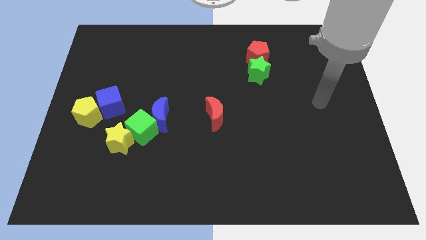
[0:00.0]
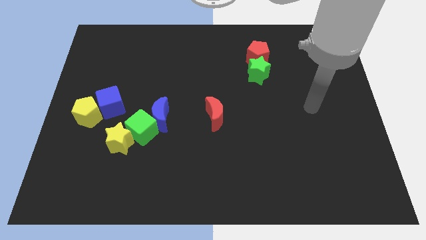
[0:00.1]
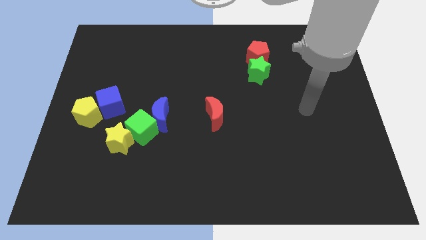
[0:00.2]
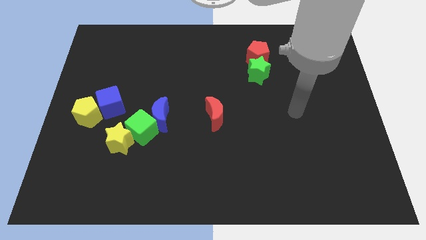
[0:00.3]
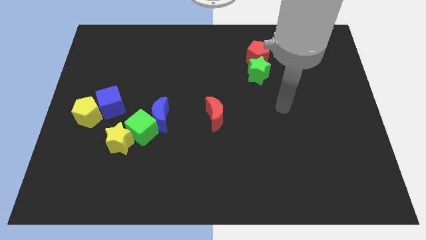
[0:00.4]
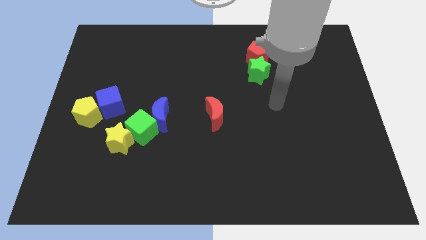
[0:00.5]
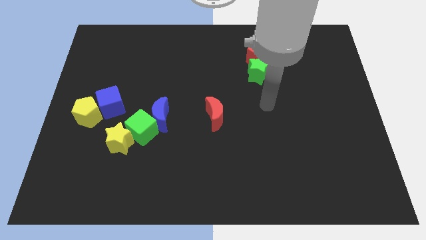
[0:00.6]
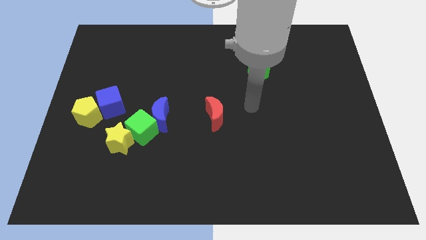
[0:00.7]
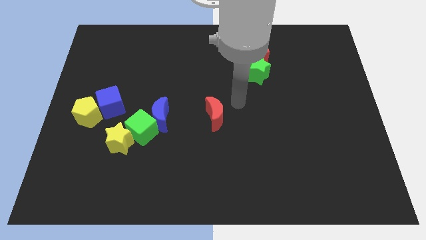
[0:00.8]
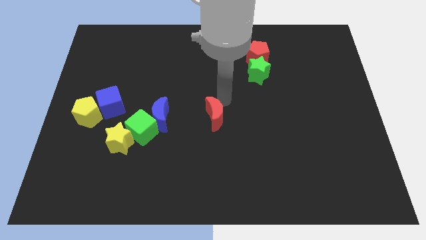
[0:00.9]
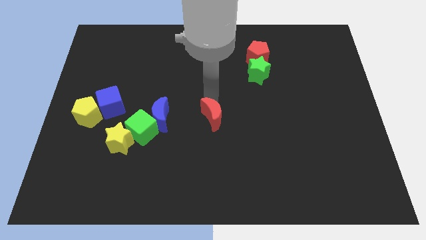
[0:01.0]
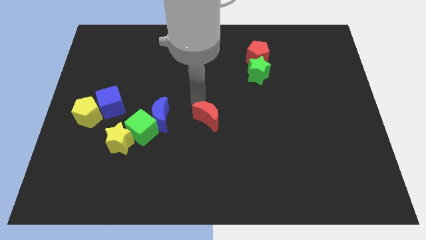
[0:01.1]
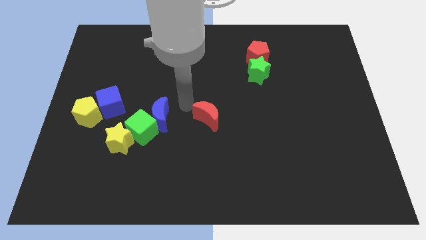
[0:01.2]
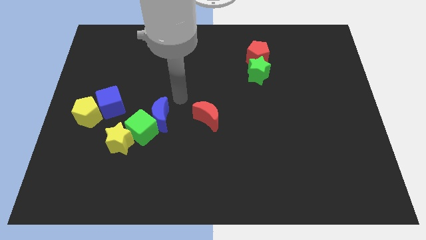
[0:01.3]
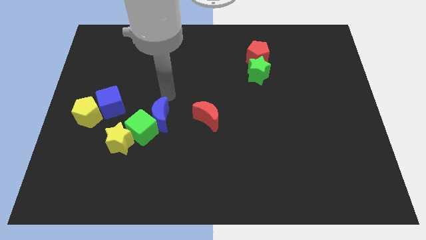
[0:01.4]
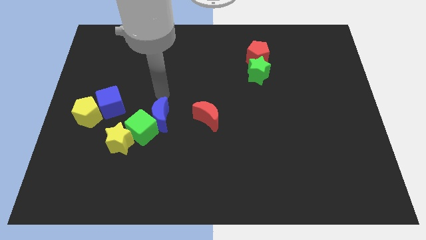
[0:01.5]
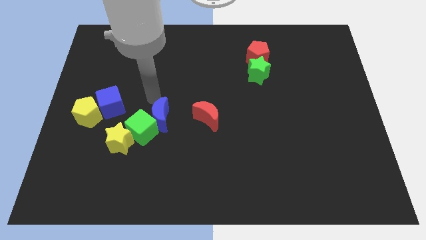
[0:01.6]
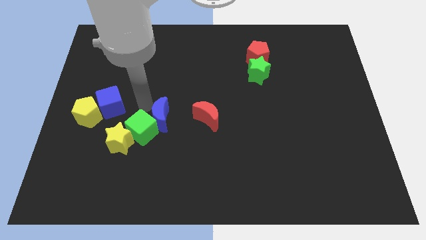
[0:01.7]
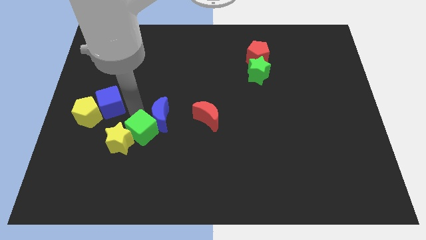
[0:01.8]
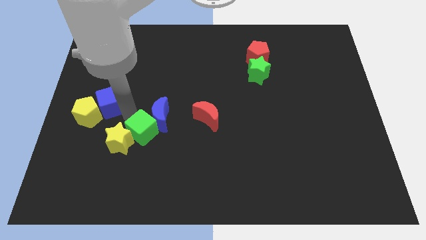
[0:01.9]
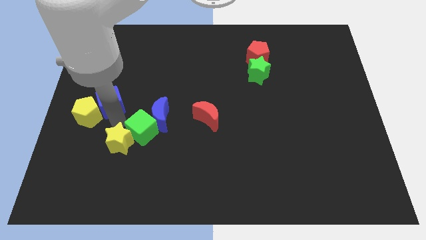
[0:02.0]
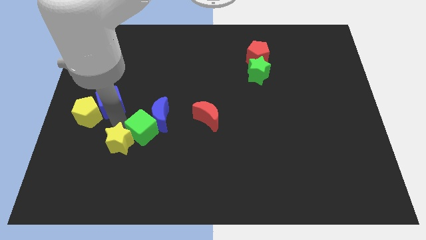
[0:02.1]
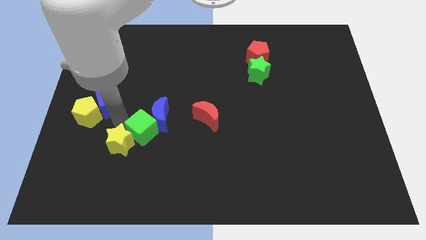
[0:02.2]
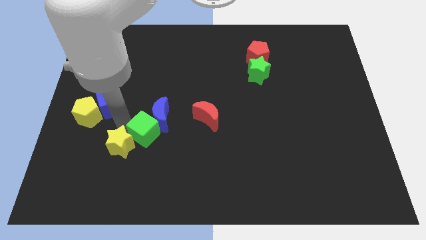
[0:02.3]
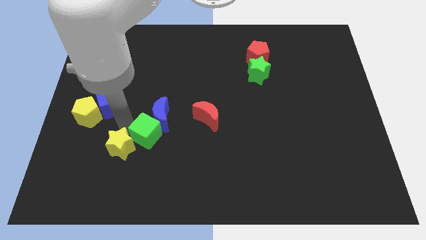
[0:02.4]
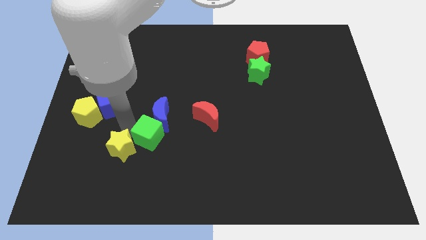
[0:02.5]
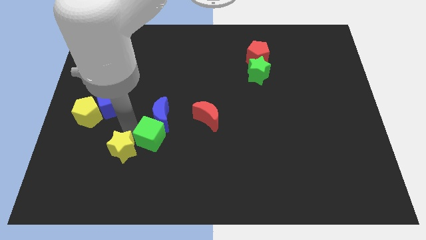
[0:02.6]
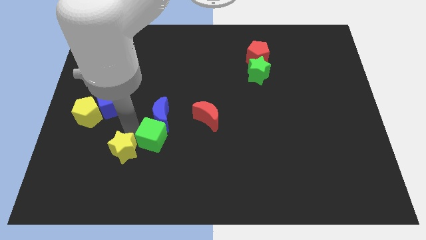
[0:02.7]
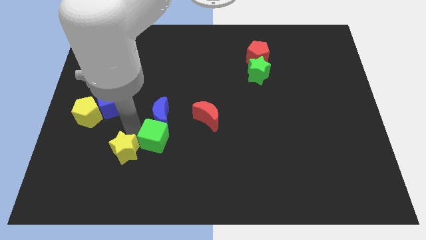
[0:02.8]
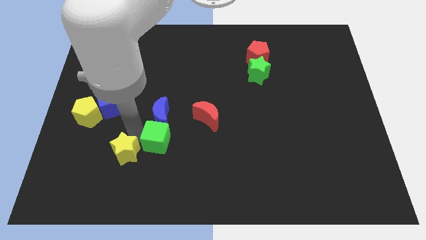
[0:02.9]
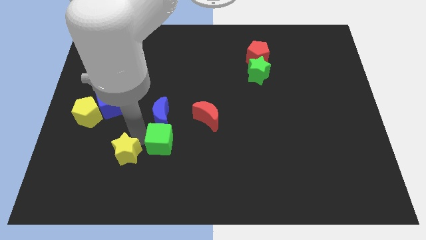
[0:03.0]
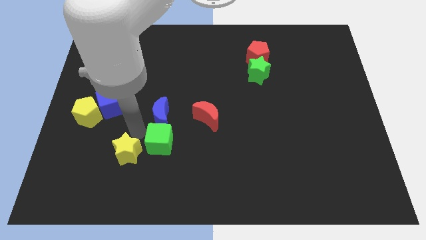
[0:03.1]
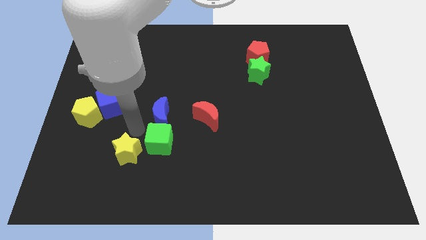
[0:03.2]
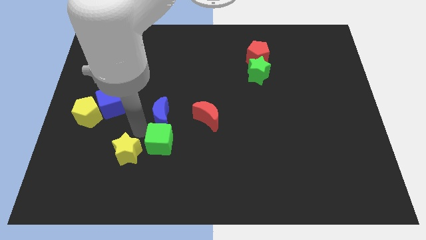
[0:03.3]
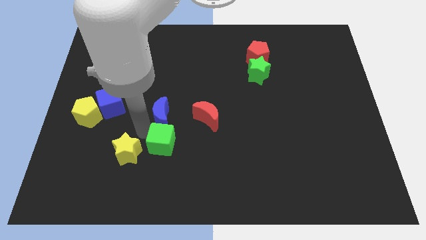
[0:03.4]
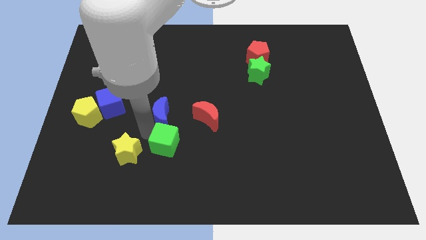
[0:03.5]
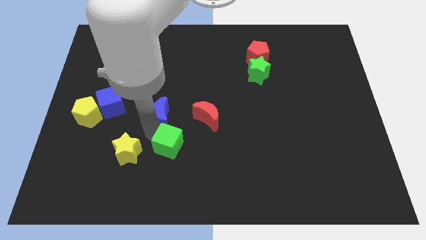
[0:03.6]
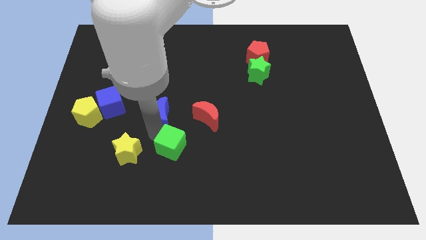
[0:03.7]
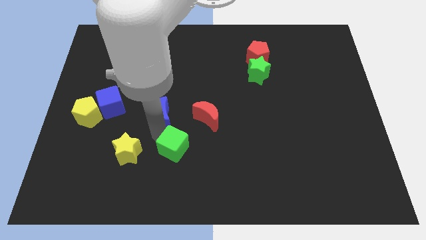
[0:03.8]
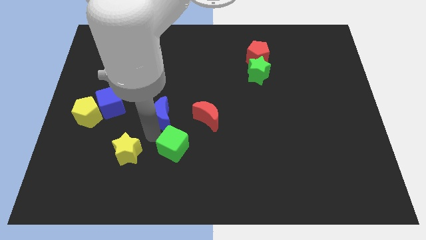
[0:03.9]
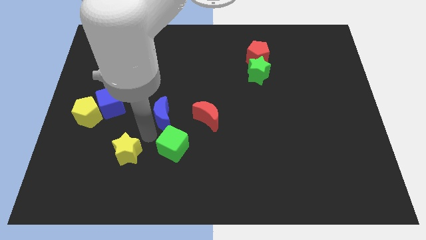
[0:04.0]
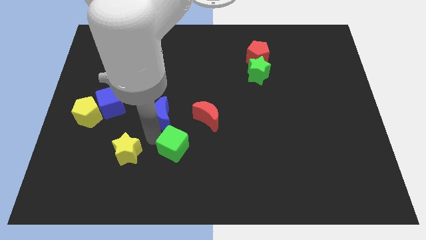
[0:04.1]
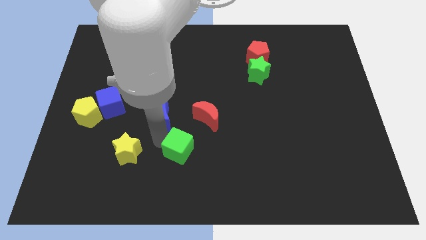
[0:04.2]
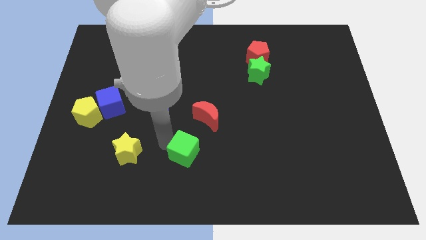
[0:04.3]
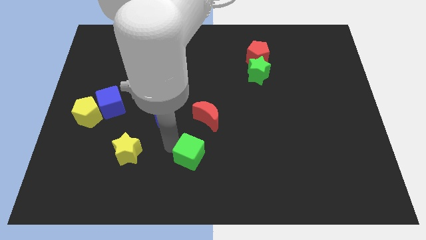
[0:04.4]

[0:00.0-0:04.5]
pull the green cube apart from the blue moon and yellow star

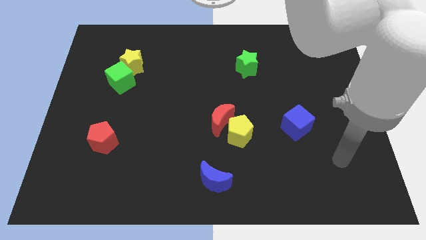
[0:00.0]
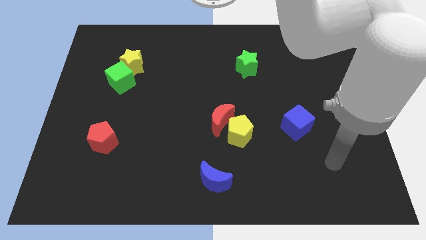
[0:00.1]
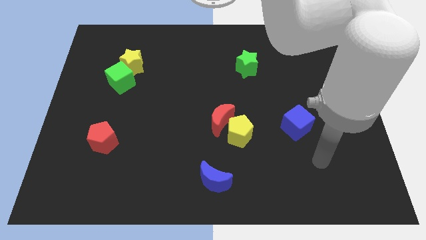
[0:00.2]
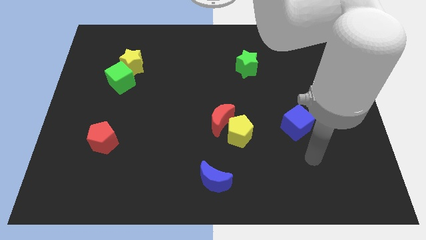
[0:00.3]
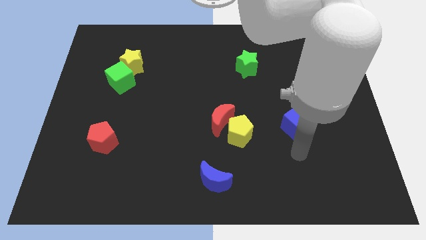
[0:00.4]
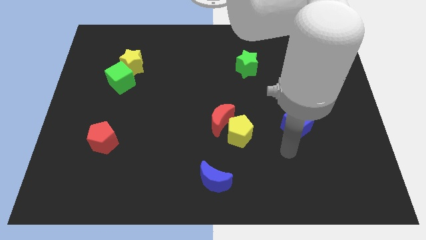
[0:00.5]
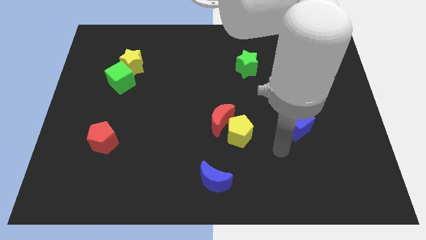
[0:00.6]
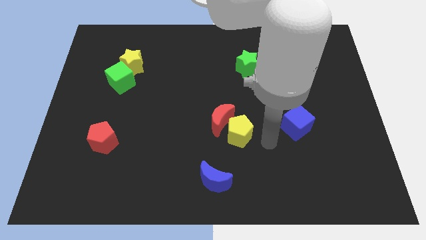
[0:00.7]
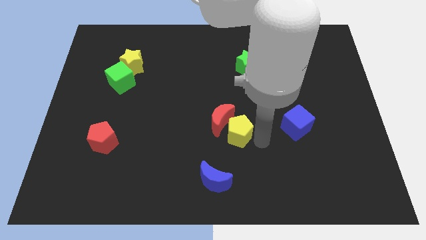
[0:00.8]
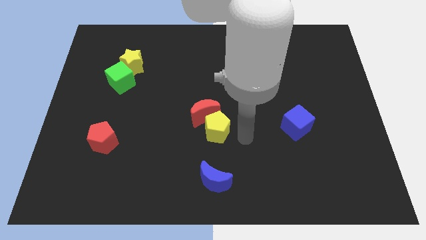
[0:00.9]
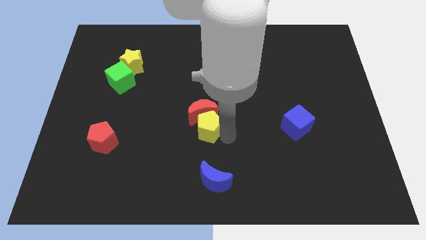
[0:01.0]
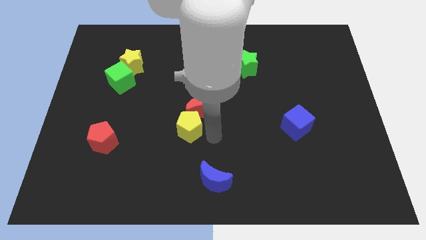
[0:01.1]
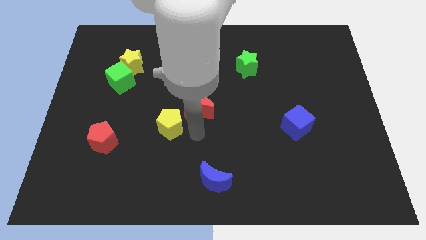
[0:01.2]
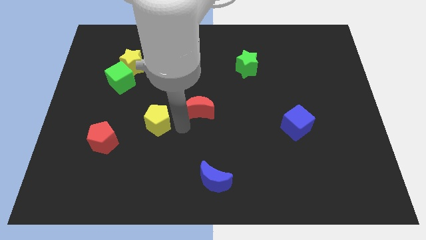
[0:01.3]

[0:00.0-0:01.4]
pull the red moon apart from the yellow pentagon

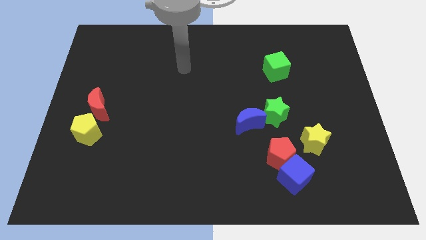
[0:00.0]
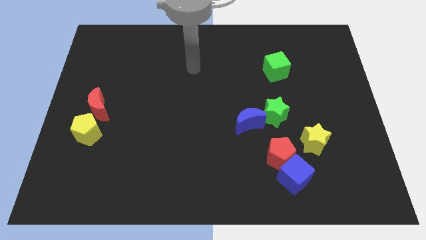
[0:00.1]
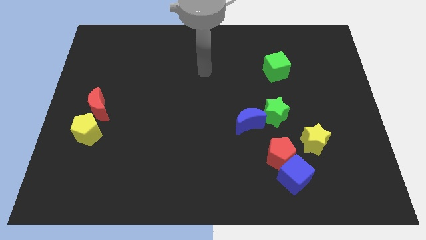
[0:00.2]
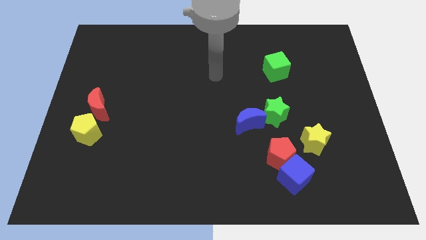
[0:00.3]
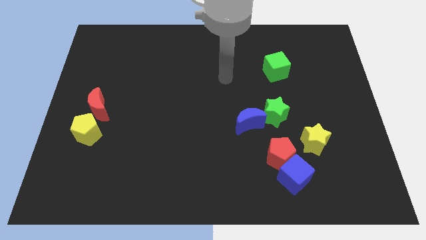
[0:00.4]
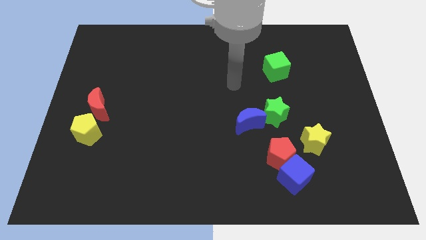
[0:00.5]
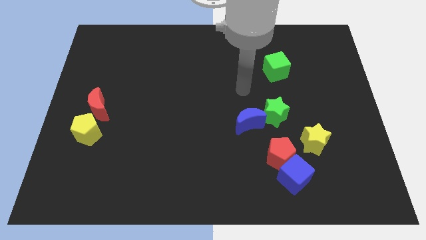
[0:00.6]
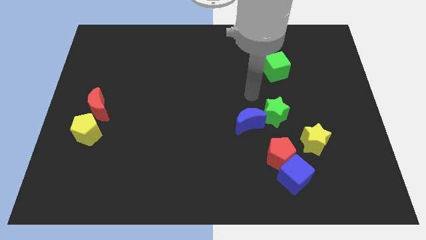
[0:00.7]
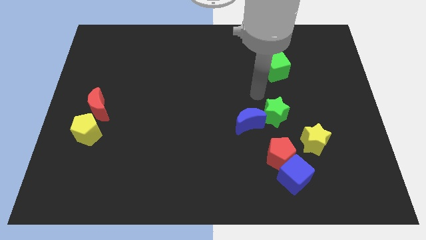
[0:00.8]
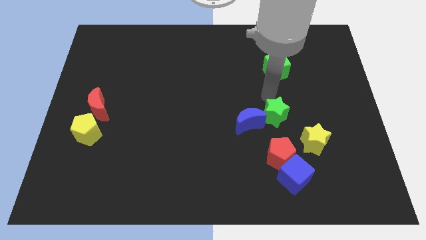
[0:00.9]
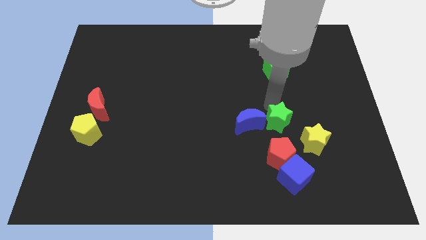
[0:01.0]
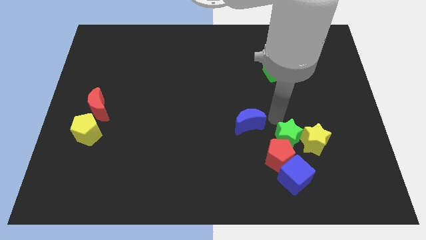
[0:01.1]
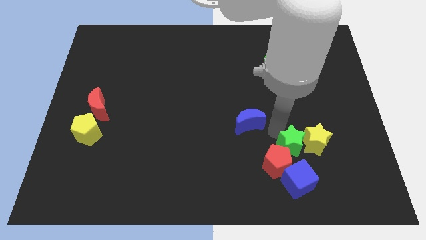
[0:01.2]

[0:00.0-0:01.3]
separate the blue moon from the green star

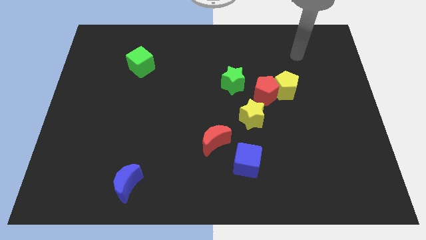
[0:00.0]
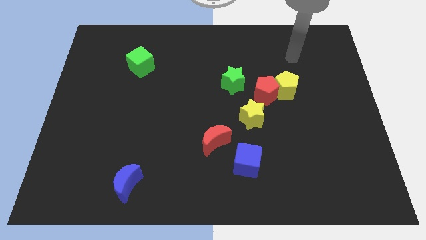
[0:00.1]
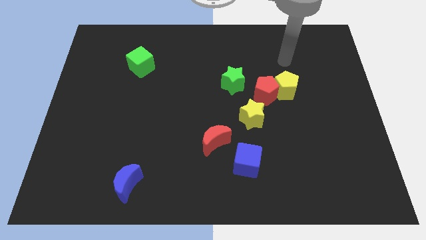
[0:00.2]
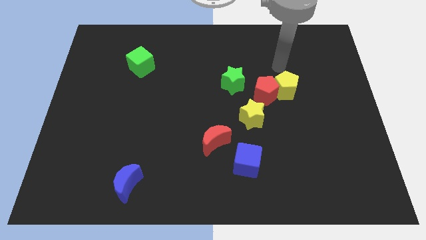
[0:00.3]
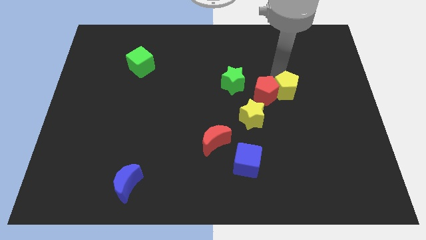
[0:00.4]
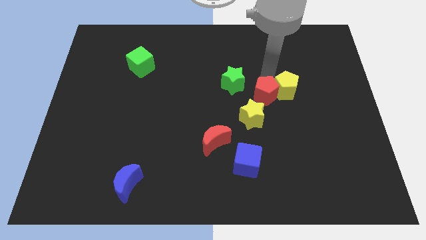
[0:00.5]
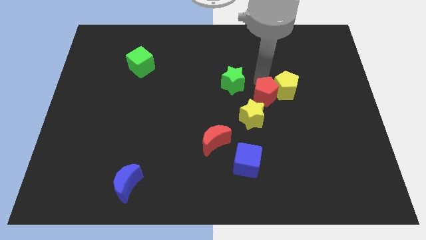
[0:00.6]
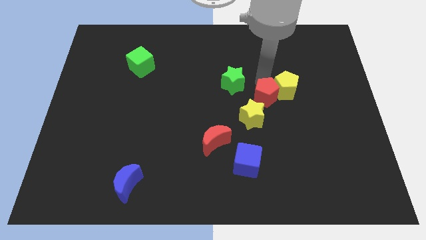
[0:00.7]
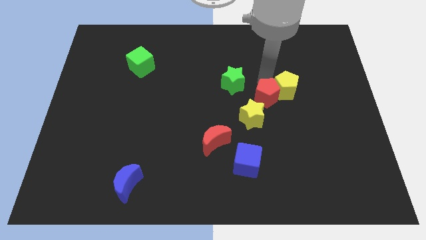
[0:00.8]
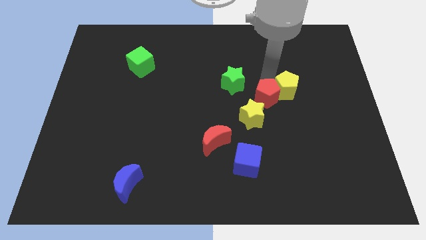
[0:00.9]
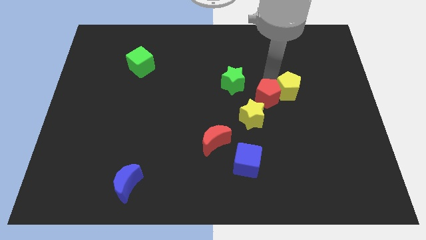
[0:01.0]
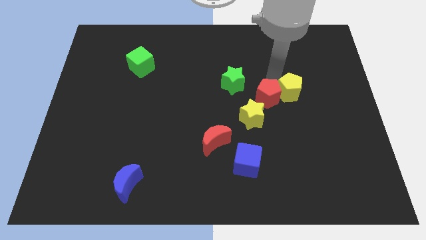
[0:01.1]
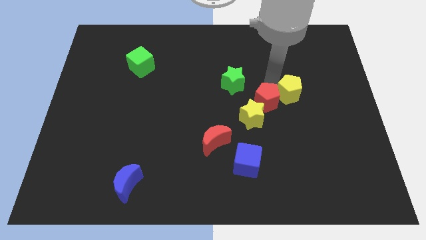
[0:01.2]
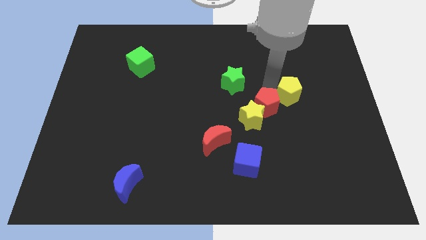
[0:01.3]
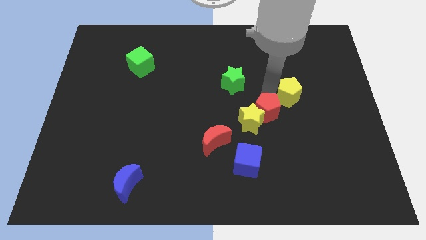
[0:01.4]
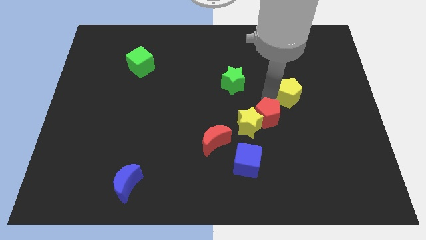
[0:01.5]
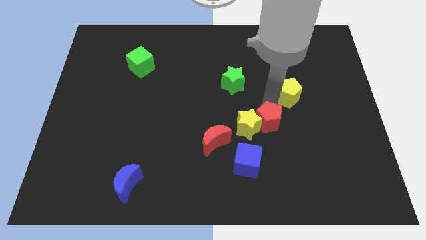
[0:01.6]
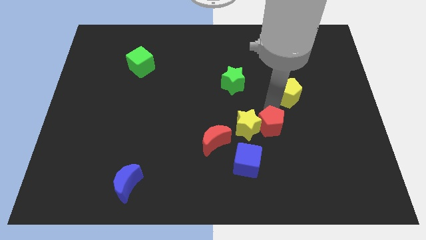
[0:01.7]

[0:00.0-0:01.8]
pull the yellow pentagon apart from the red pentagon

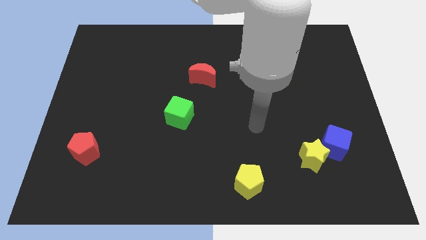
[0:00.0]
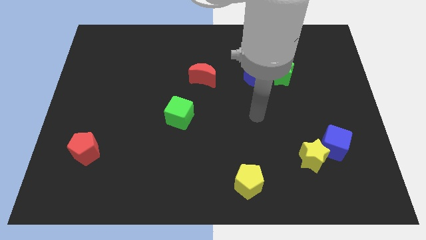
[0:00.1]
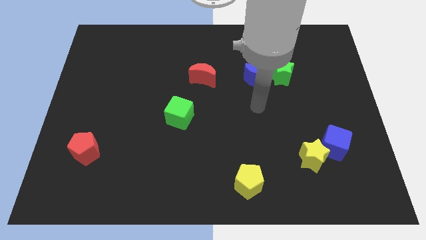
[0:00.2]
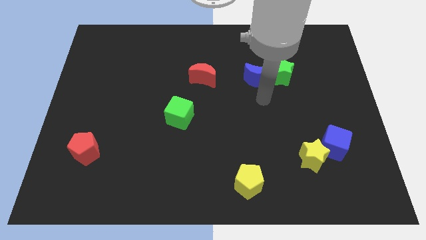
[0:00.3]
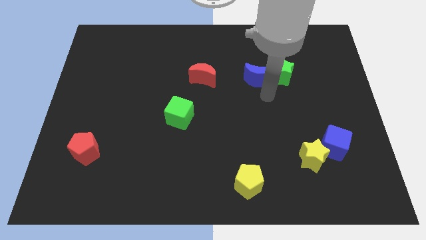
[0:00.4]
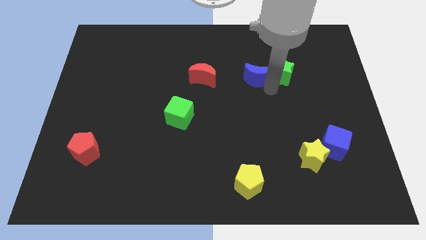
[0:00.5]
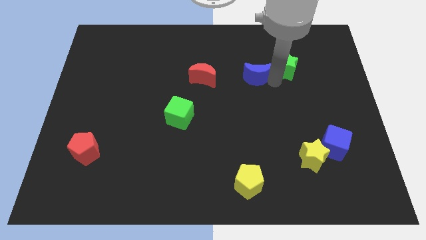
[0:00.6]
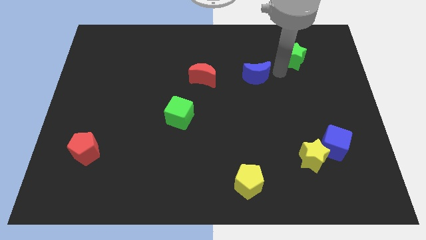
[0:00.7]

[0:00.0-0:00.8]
move the blue moon away from the green star
